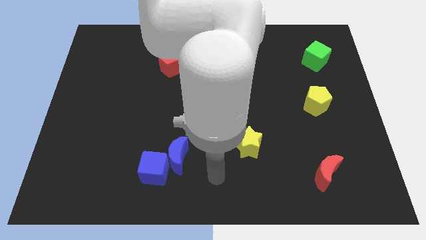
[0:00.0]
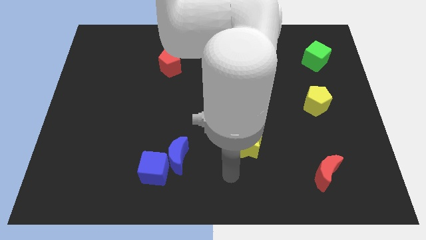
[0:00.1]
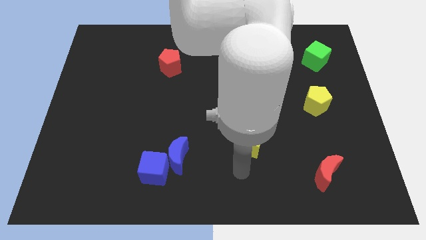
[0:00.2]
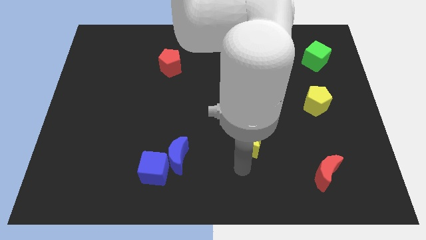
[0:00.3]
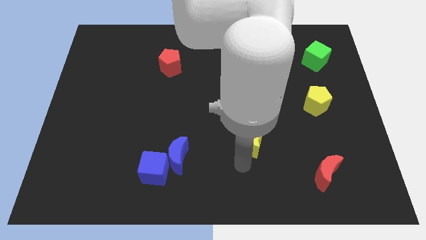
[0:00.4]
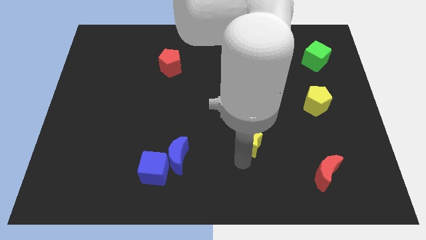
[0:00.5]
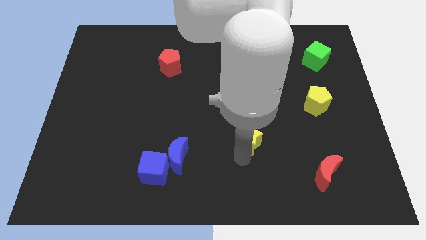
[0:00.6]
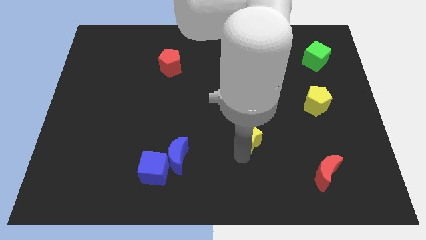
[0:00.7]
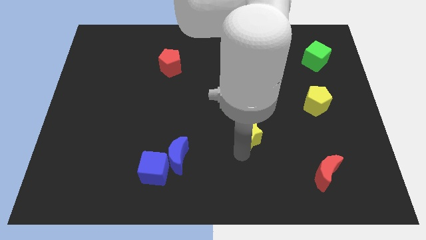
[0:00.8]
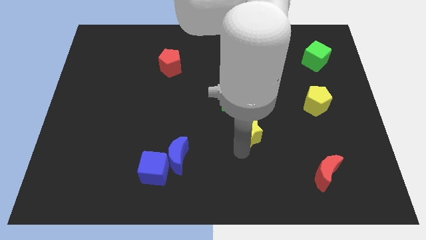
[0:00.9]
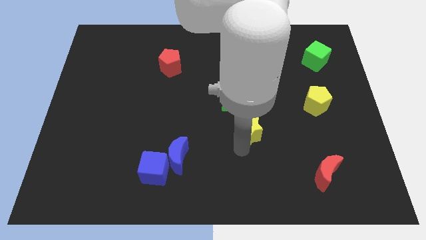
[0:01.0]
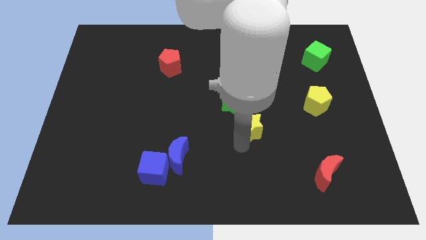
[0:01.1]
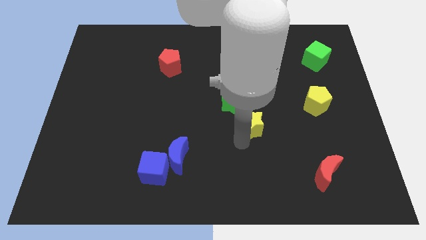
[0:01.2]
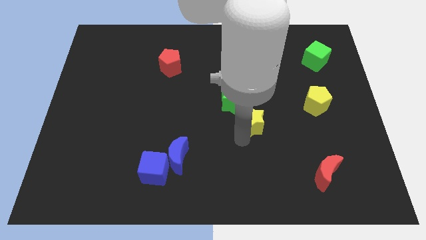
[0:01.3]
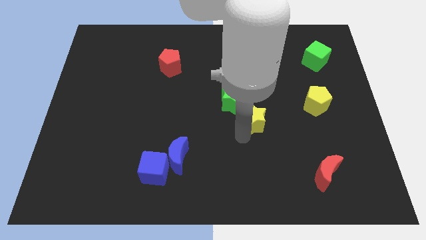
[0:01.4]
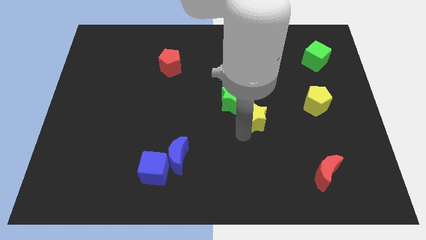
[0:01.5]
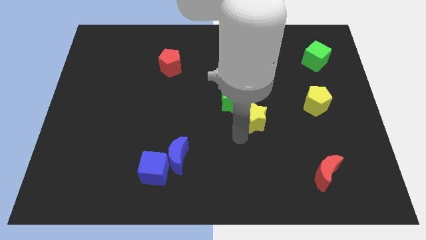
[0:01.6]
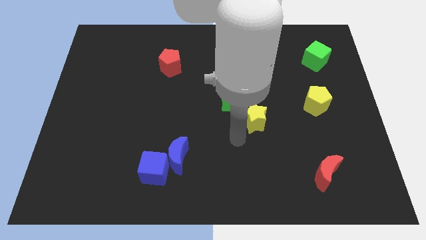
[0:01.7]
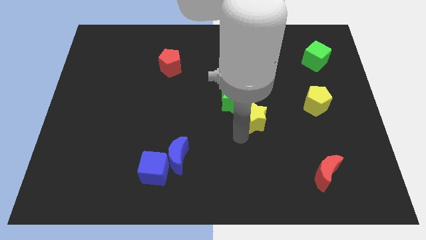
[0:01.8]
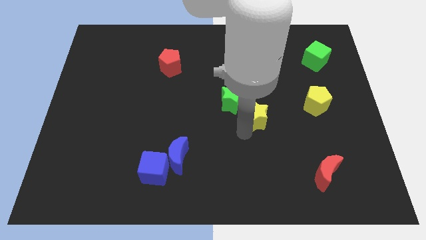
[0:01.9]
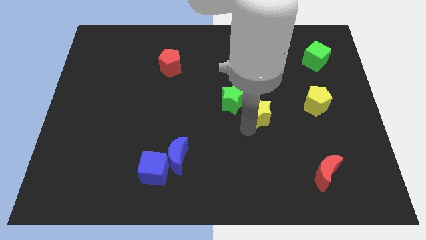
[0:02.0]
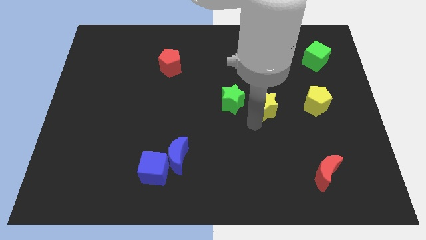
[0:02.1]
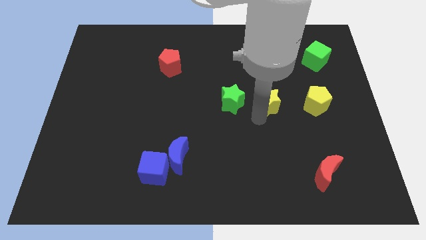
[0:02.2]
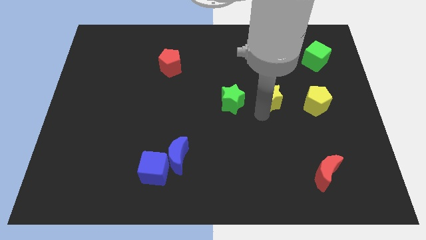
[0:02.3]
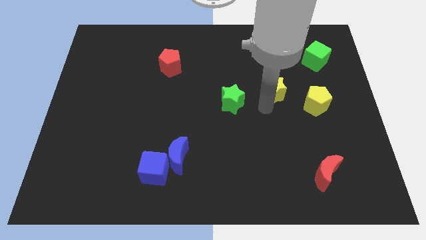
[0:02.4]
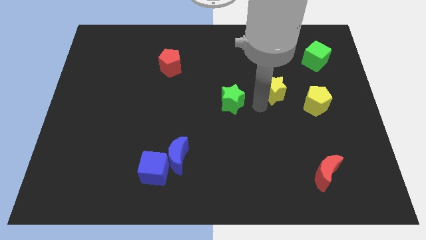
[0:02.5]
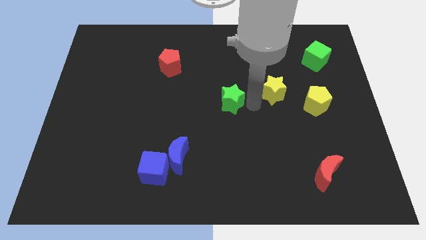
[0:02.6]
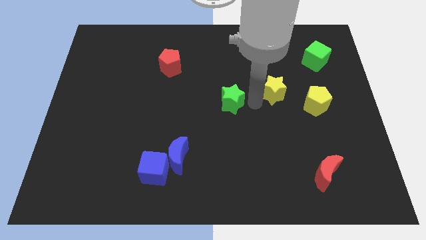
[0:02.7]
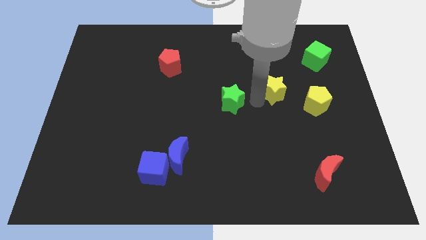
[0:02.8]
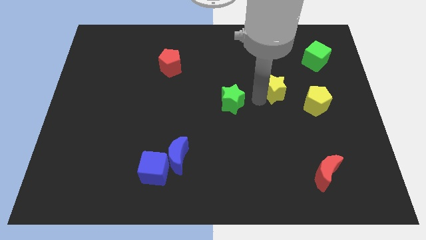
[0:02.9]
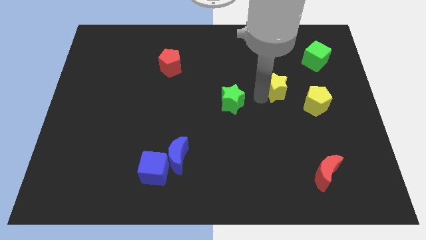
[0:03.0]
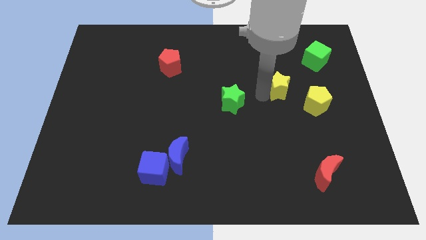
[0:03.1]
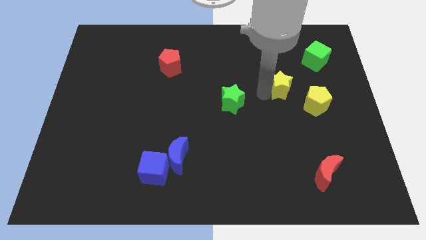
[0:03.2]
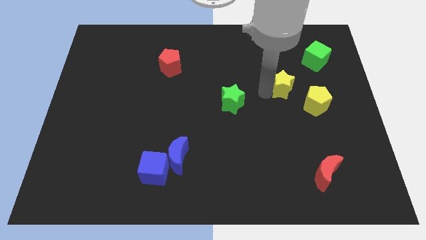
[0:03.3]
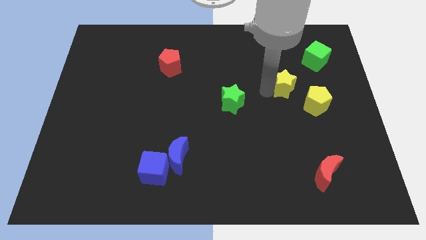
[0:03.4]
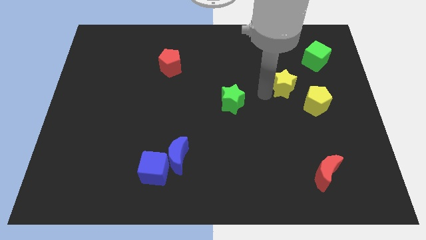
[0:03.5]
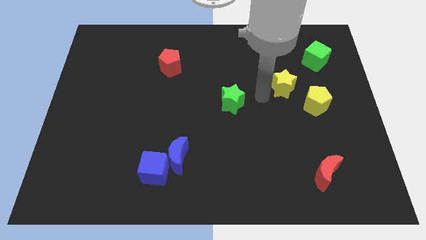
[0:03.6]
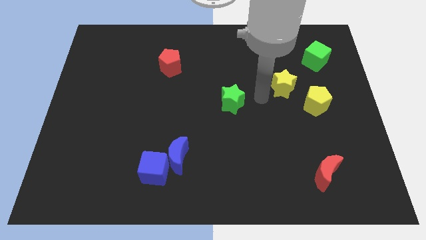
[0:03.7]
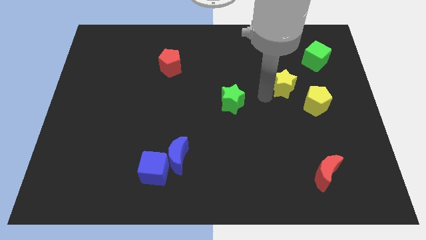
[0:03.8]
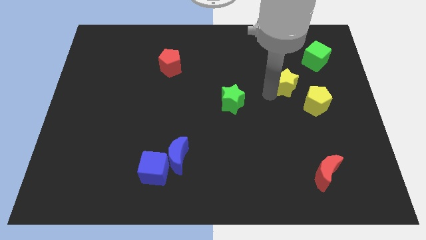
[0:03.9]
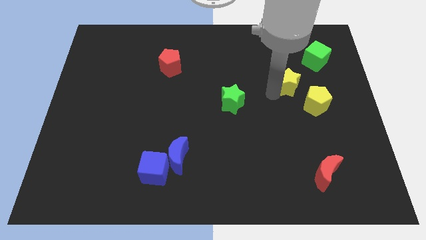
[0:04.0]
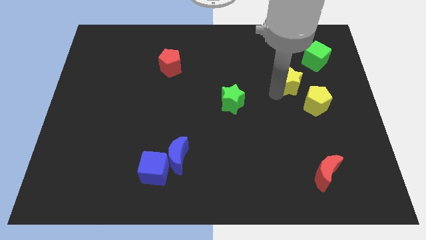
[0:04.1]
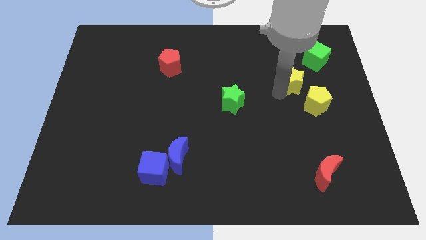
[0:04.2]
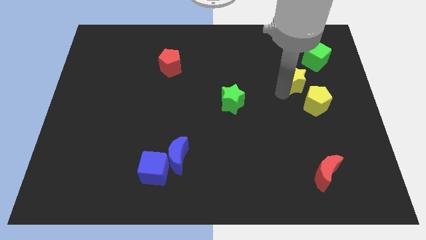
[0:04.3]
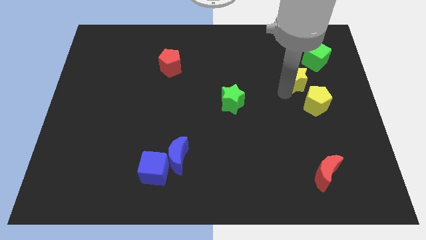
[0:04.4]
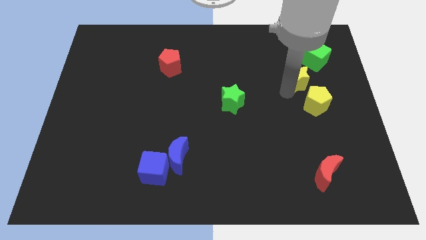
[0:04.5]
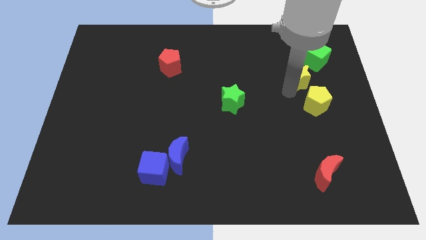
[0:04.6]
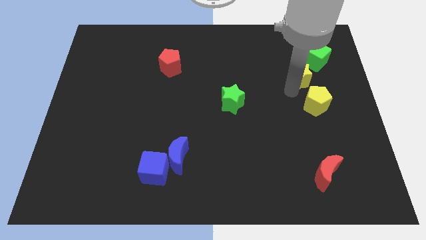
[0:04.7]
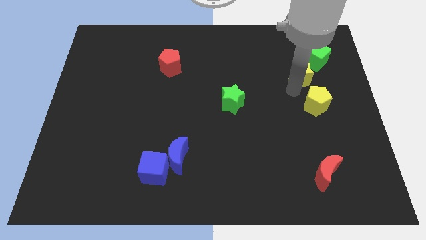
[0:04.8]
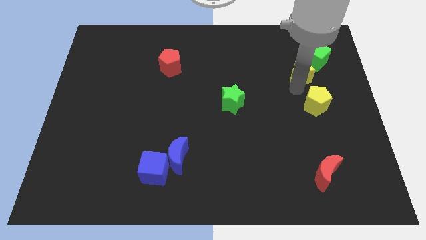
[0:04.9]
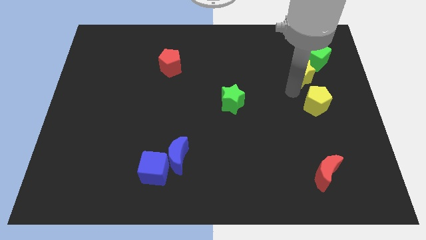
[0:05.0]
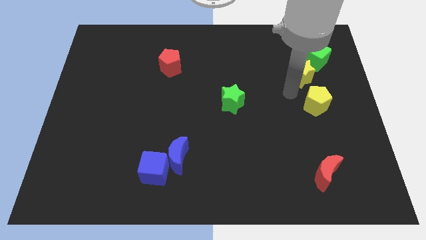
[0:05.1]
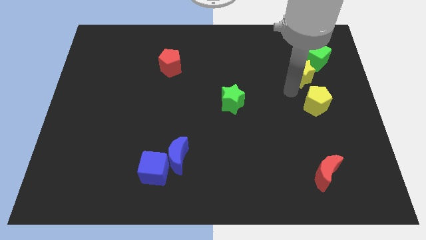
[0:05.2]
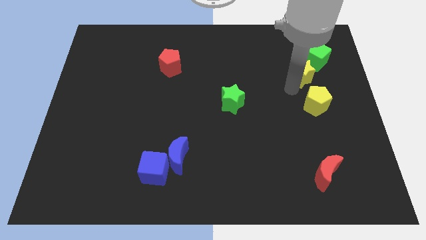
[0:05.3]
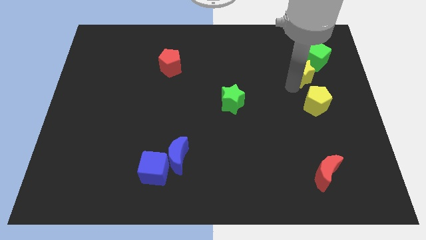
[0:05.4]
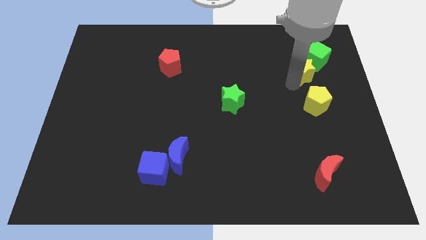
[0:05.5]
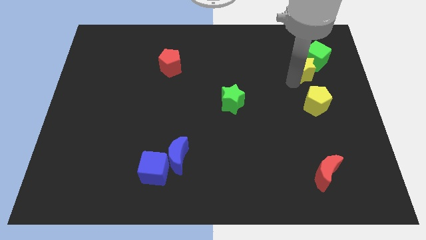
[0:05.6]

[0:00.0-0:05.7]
push the yellow star to the green cube

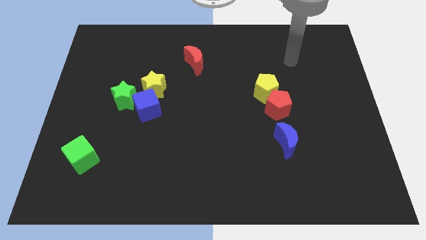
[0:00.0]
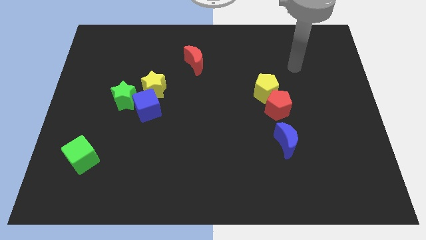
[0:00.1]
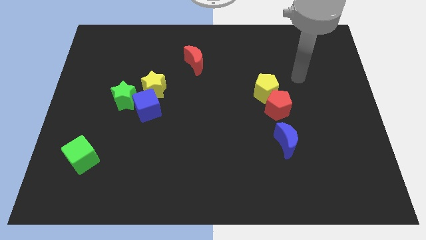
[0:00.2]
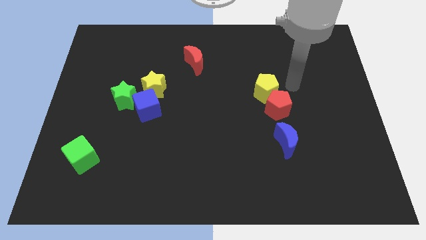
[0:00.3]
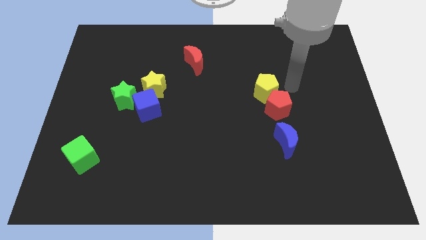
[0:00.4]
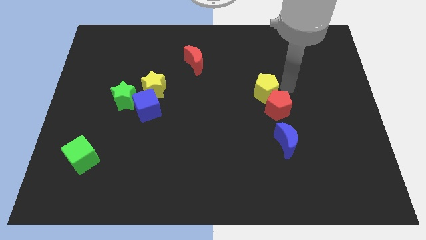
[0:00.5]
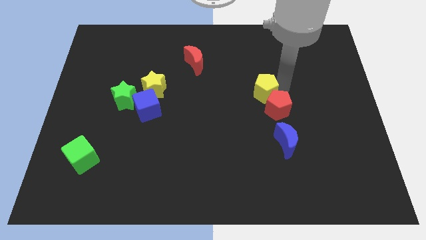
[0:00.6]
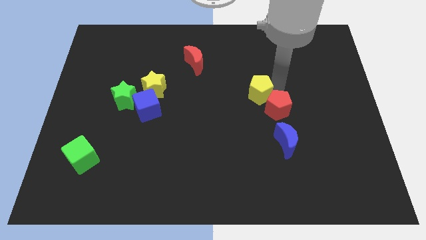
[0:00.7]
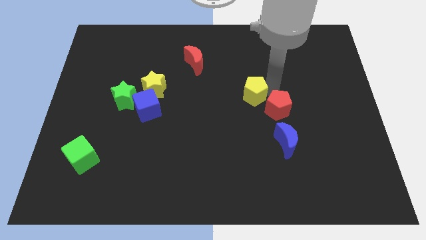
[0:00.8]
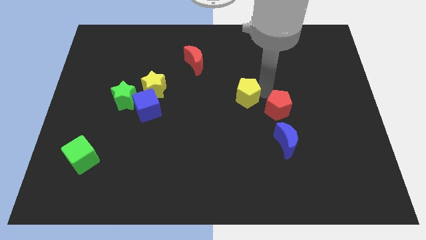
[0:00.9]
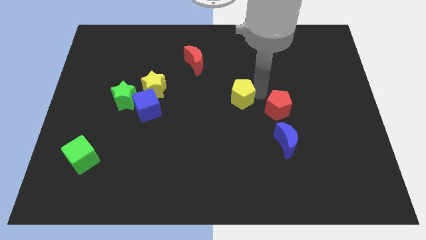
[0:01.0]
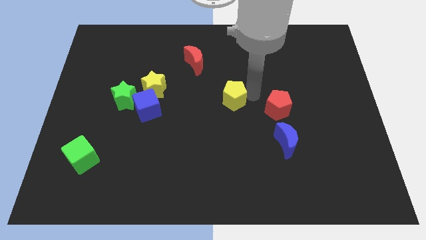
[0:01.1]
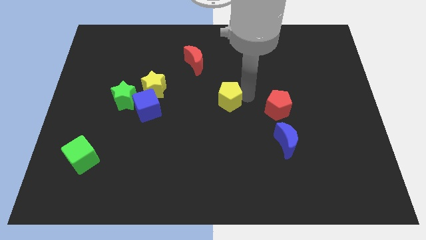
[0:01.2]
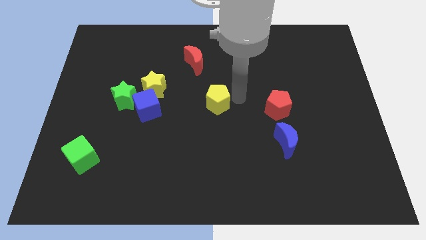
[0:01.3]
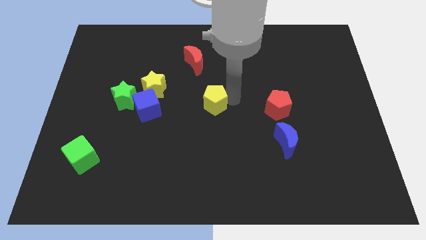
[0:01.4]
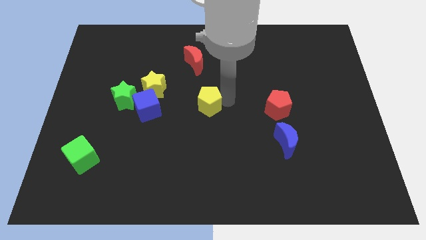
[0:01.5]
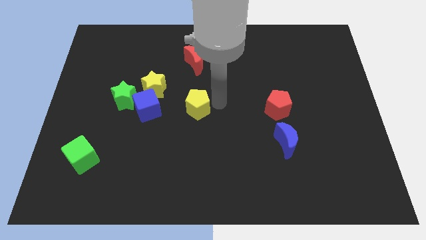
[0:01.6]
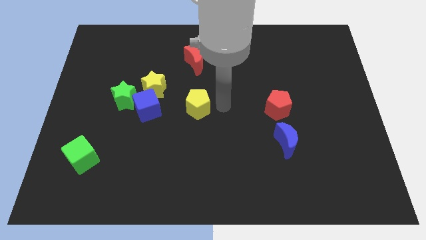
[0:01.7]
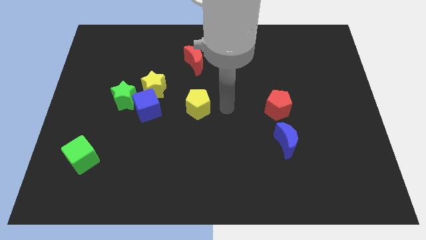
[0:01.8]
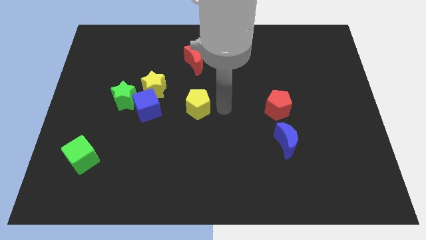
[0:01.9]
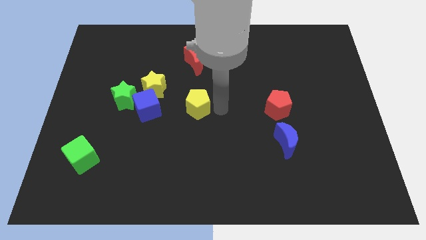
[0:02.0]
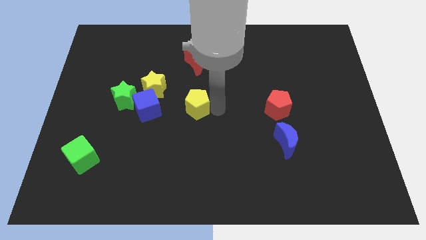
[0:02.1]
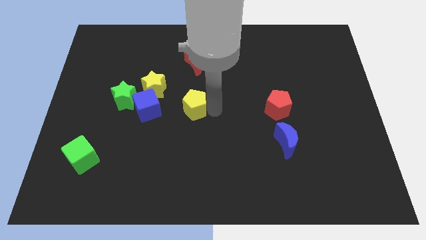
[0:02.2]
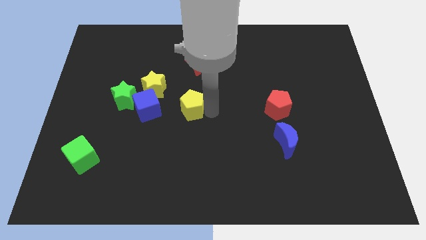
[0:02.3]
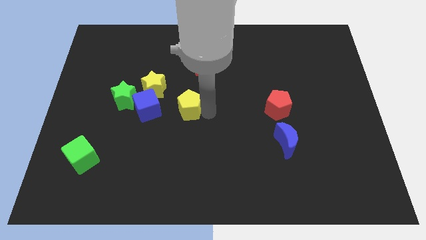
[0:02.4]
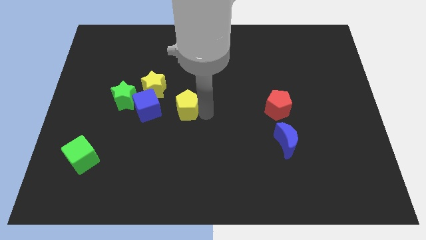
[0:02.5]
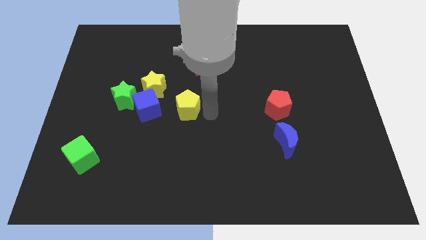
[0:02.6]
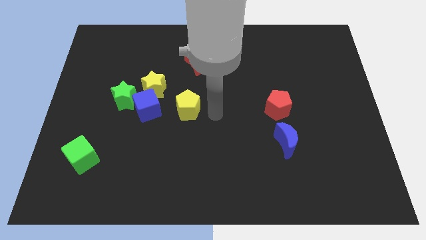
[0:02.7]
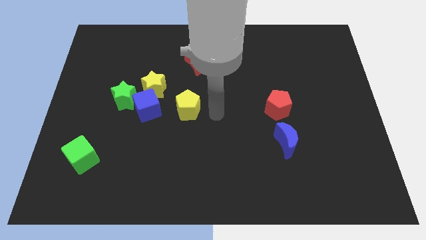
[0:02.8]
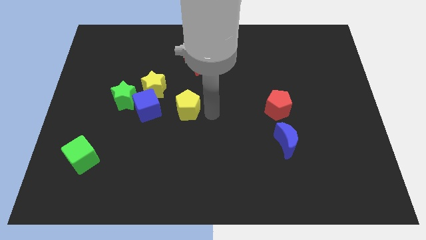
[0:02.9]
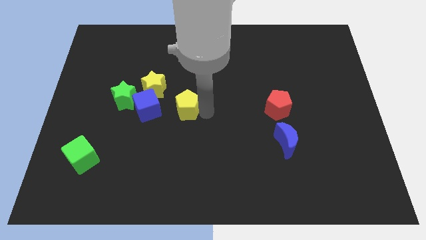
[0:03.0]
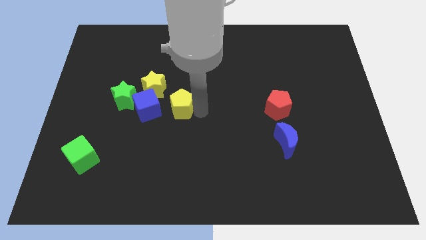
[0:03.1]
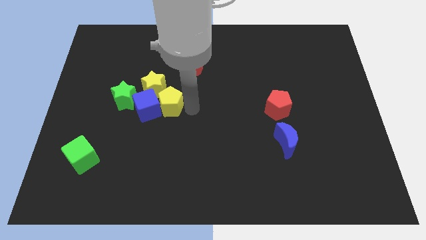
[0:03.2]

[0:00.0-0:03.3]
slide the yellow pentagon towards the blue cube
